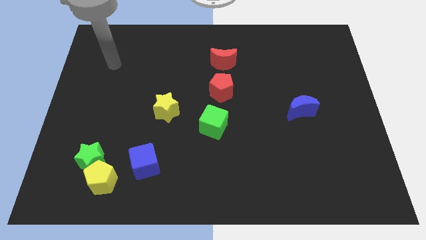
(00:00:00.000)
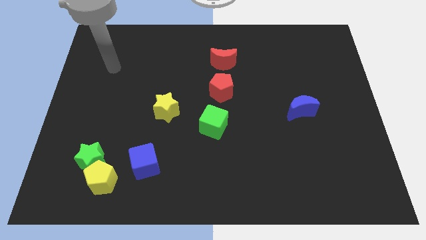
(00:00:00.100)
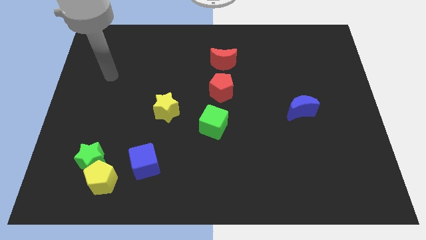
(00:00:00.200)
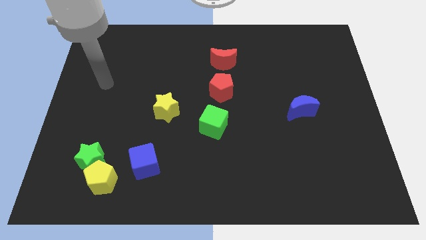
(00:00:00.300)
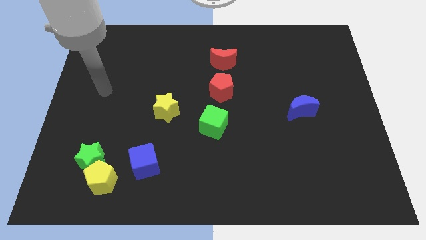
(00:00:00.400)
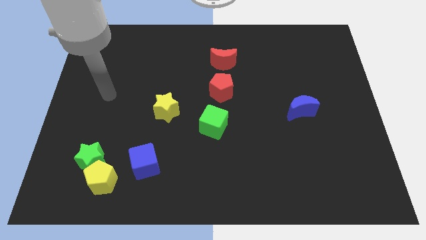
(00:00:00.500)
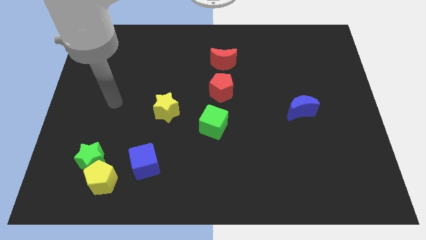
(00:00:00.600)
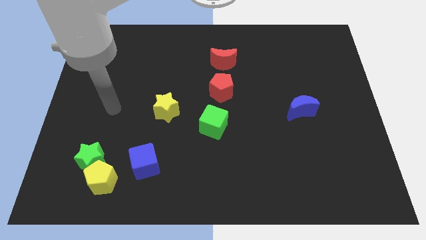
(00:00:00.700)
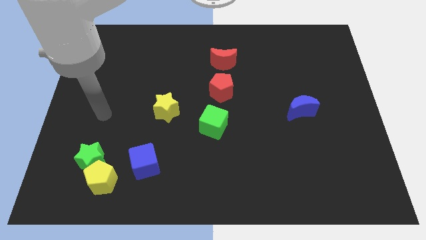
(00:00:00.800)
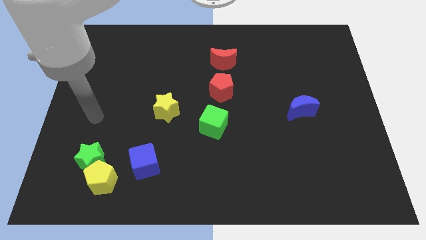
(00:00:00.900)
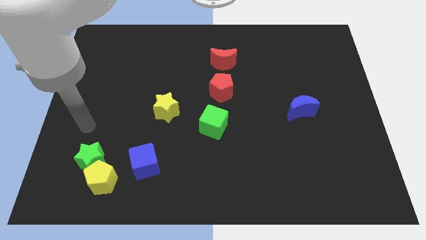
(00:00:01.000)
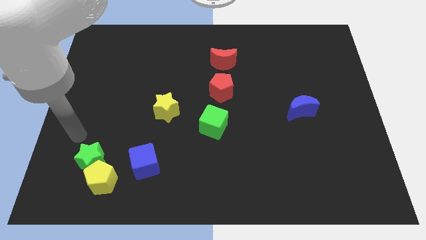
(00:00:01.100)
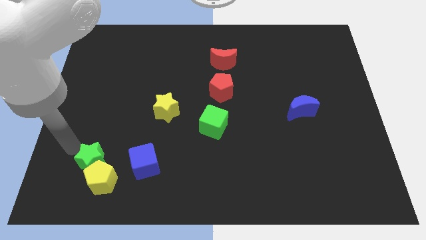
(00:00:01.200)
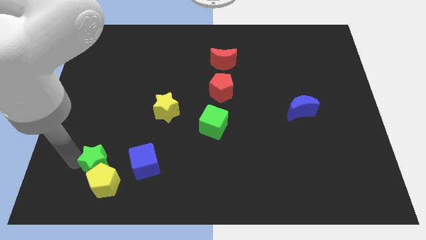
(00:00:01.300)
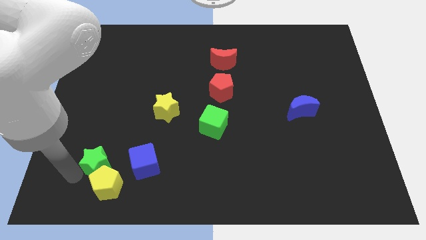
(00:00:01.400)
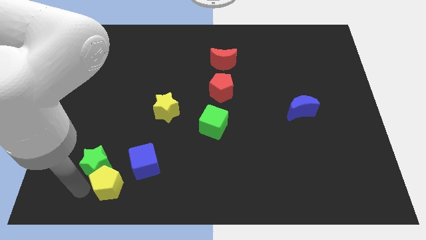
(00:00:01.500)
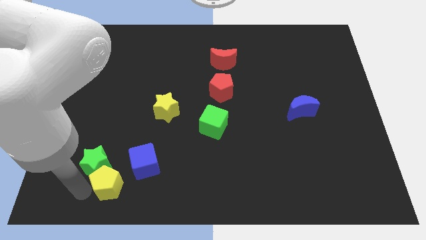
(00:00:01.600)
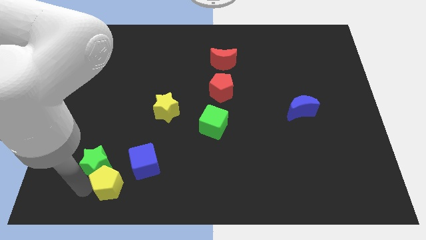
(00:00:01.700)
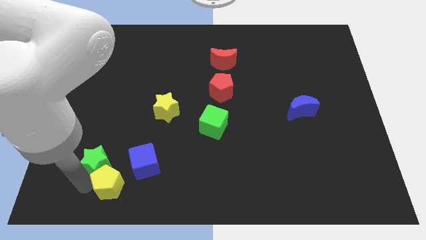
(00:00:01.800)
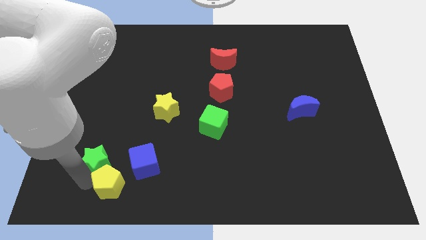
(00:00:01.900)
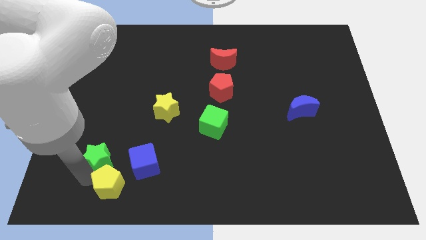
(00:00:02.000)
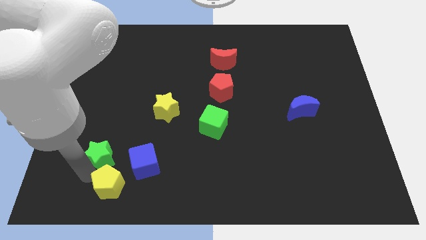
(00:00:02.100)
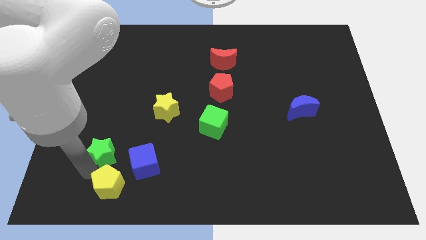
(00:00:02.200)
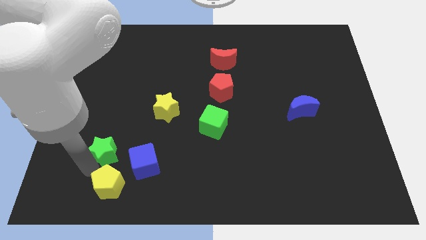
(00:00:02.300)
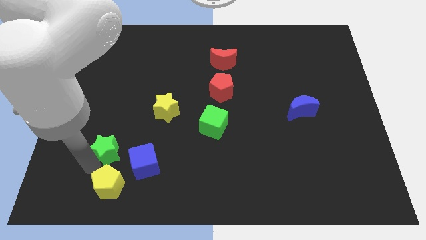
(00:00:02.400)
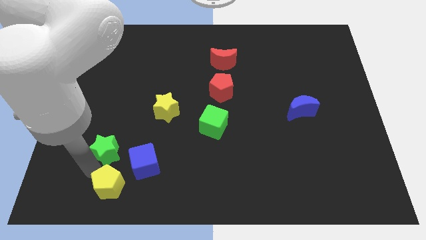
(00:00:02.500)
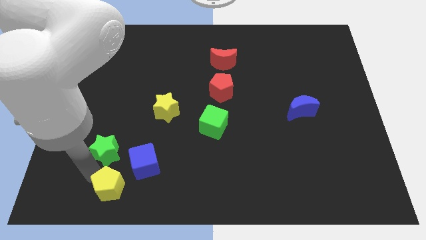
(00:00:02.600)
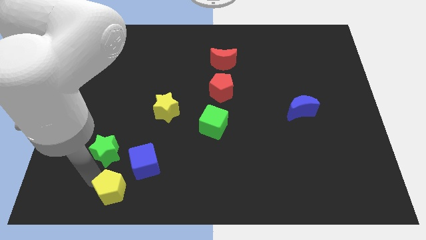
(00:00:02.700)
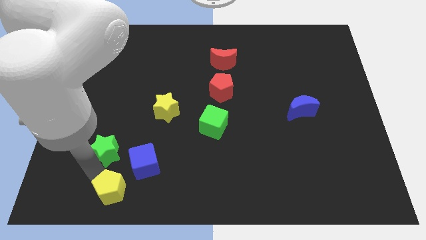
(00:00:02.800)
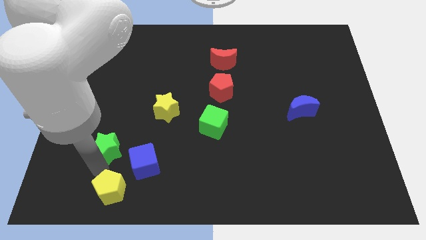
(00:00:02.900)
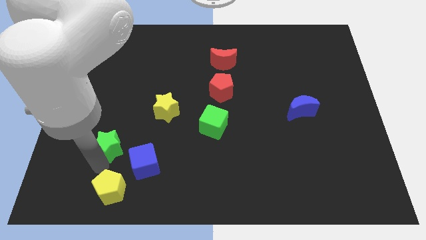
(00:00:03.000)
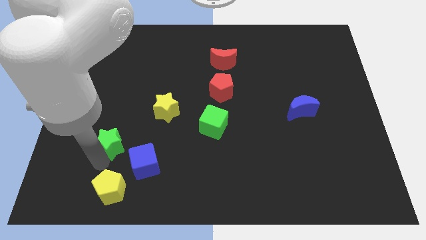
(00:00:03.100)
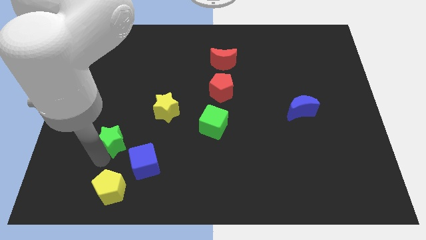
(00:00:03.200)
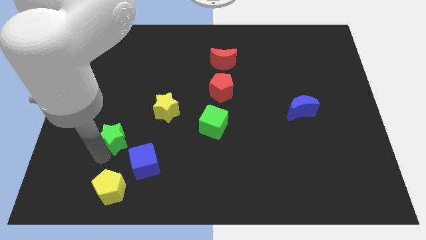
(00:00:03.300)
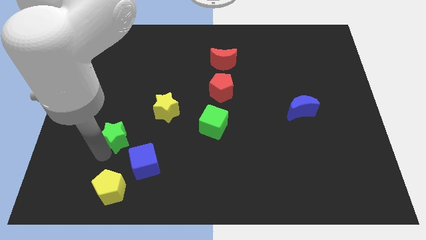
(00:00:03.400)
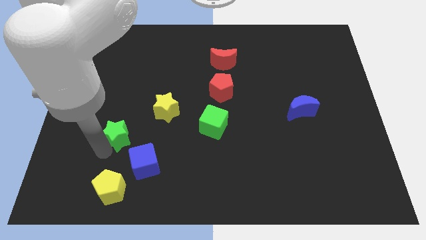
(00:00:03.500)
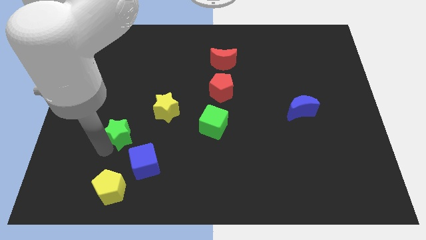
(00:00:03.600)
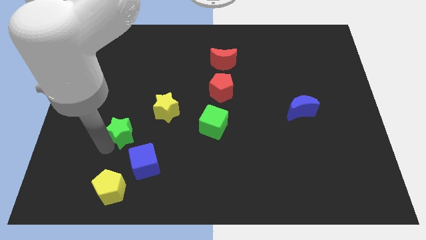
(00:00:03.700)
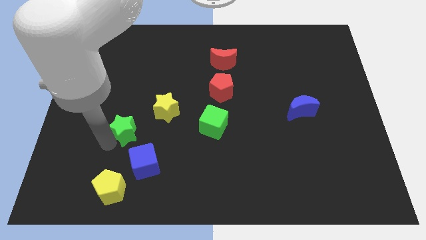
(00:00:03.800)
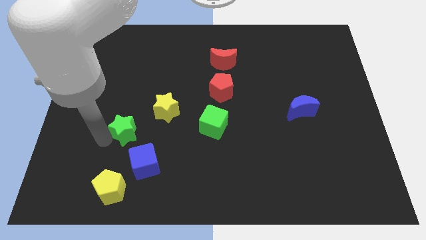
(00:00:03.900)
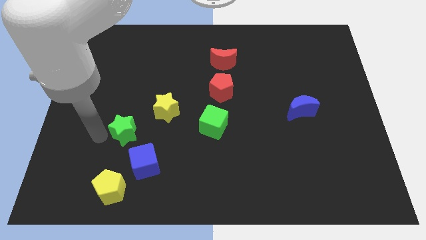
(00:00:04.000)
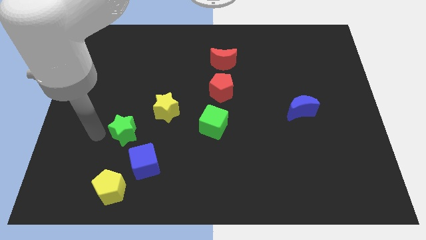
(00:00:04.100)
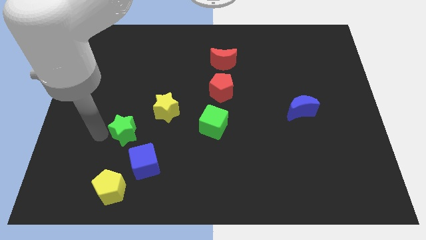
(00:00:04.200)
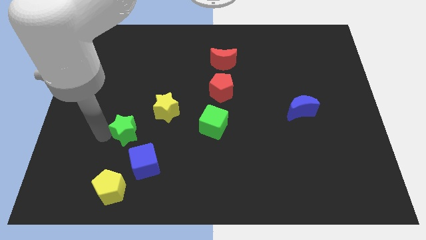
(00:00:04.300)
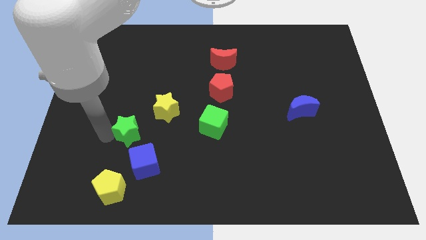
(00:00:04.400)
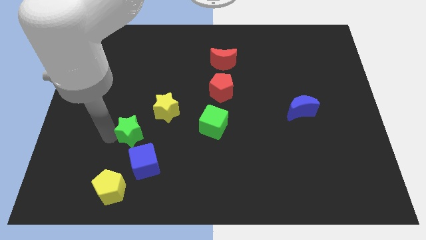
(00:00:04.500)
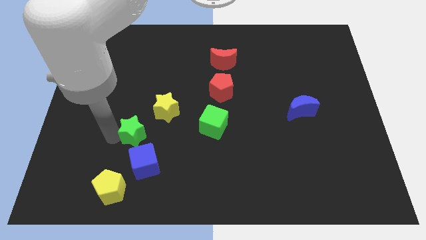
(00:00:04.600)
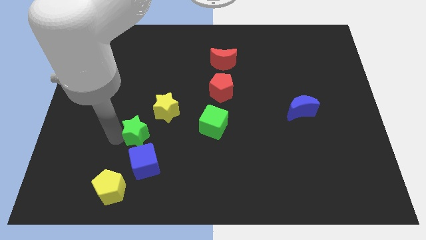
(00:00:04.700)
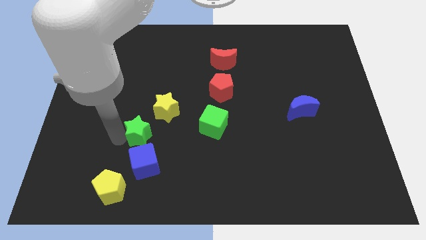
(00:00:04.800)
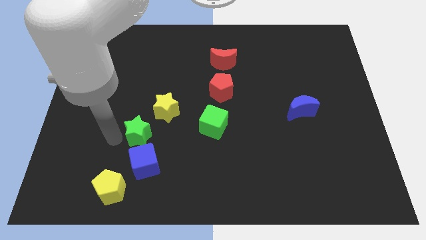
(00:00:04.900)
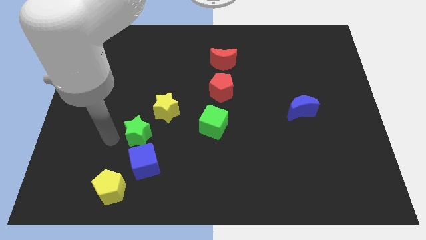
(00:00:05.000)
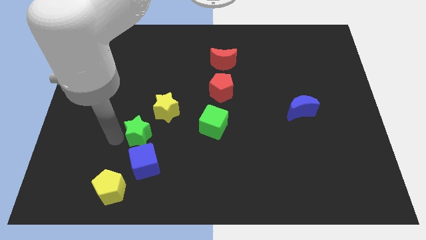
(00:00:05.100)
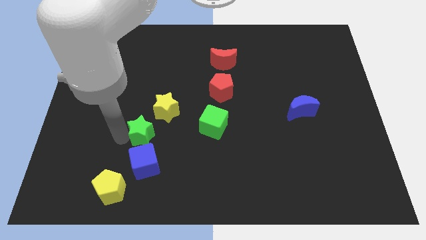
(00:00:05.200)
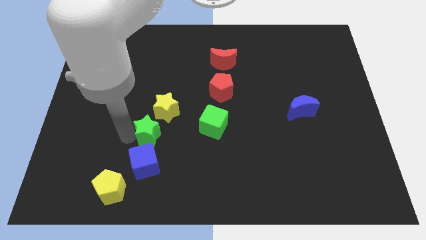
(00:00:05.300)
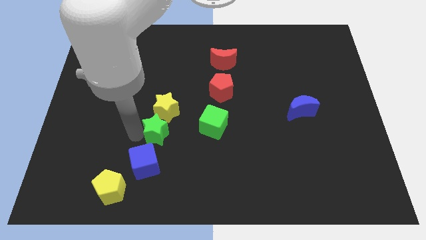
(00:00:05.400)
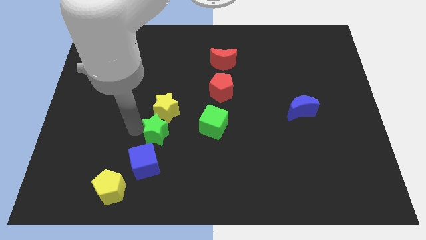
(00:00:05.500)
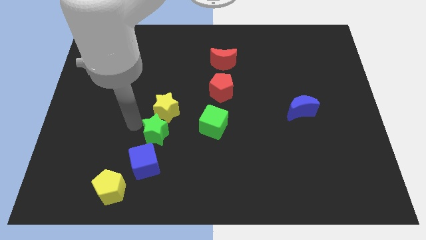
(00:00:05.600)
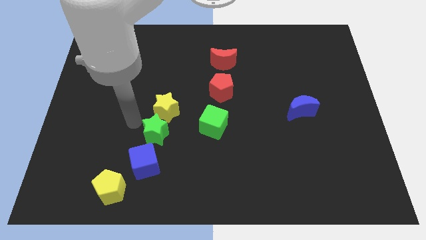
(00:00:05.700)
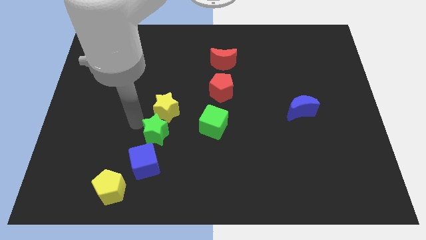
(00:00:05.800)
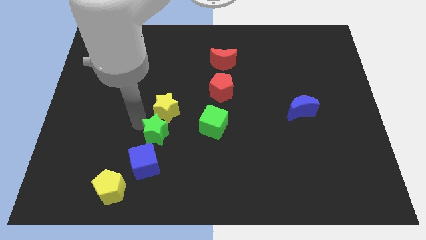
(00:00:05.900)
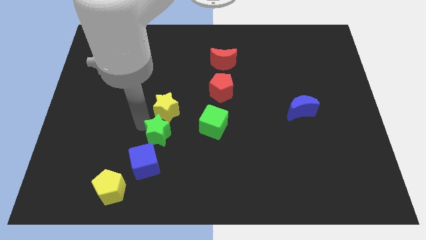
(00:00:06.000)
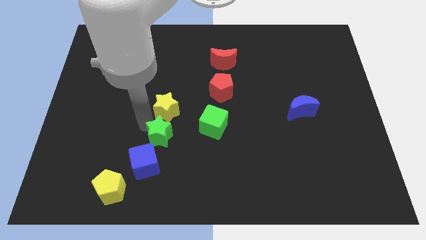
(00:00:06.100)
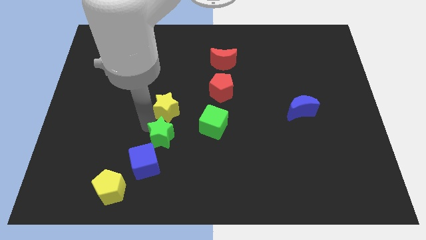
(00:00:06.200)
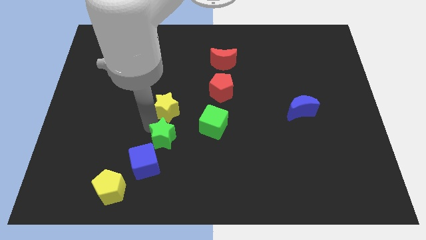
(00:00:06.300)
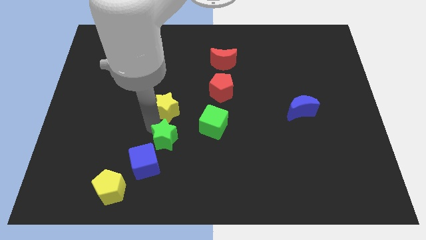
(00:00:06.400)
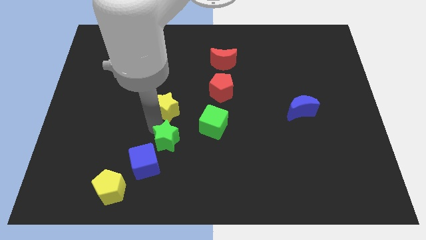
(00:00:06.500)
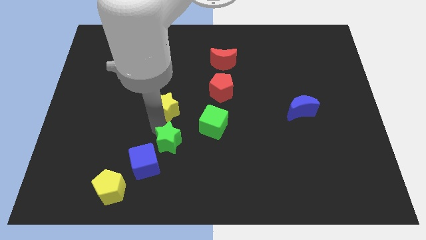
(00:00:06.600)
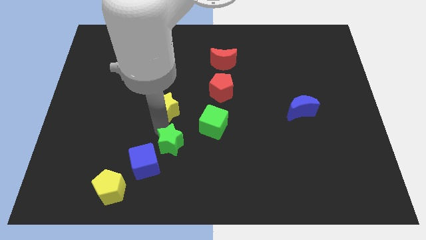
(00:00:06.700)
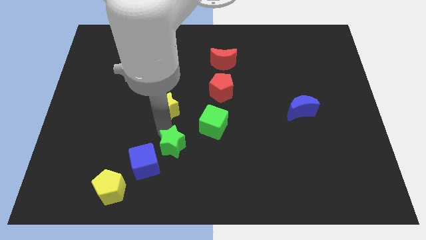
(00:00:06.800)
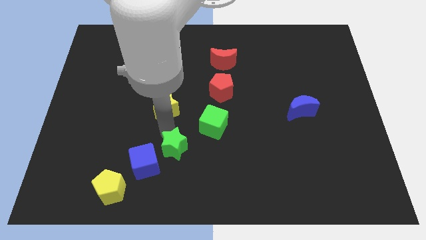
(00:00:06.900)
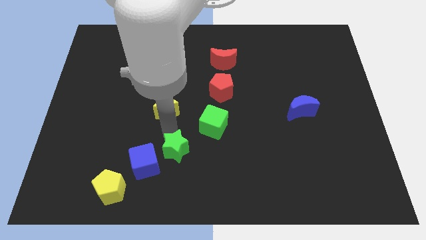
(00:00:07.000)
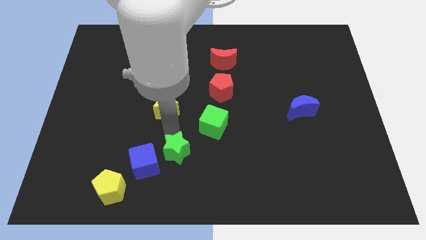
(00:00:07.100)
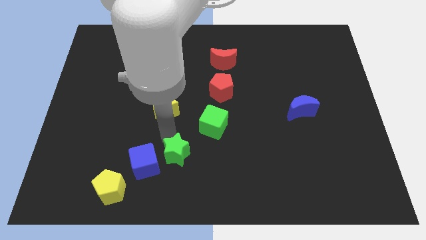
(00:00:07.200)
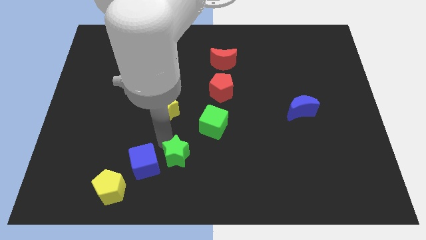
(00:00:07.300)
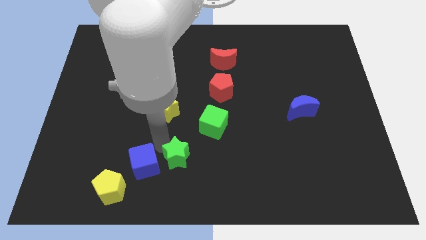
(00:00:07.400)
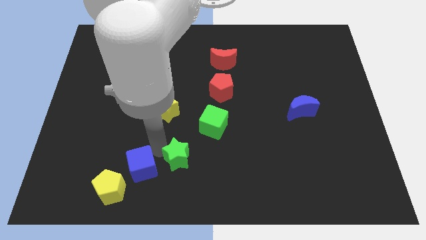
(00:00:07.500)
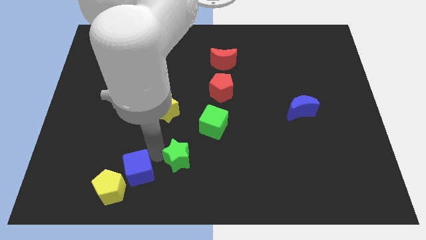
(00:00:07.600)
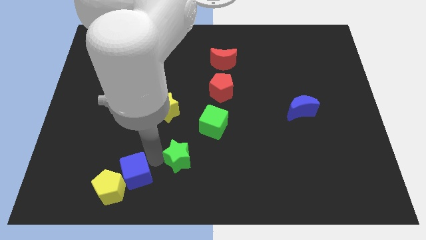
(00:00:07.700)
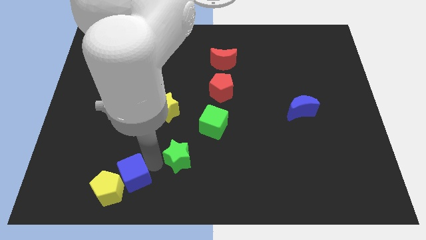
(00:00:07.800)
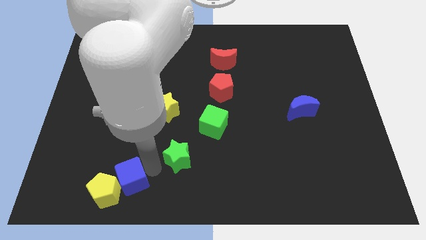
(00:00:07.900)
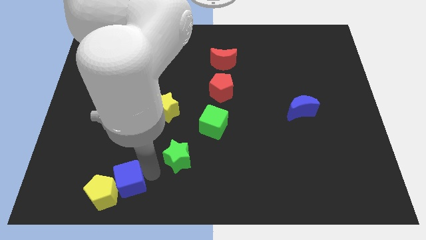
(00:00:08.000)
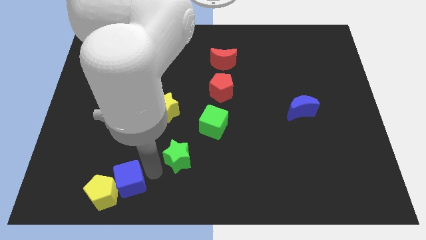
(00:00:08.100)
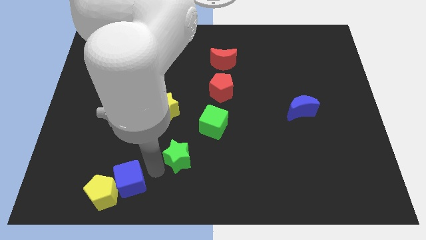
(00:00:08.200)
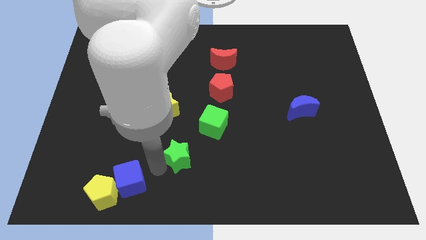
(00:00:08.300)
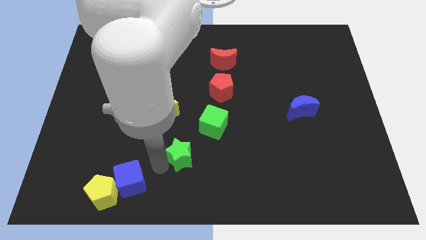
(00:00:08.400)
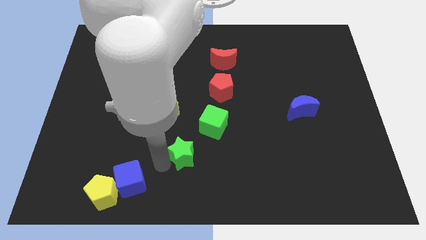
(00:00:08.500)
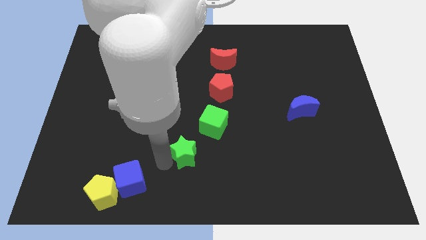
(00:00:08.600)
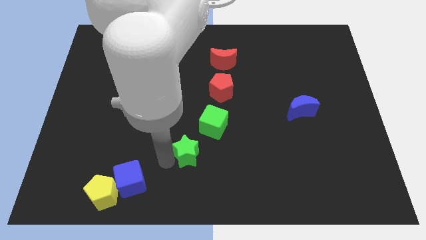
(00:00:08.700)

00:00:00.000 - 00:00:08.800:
move the green star to the right
